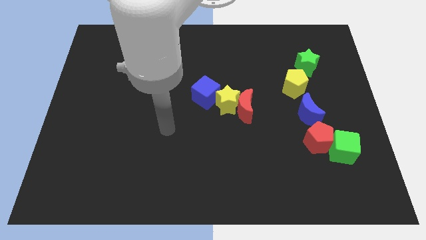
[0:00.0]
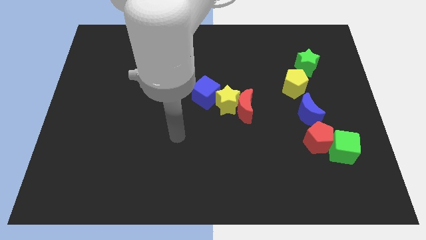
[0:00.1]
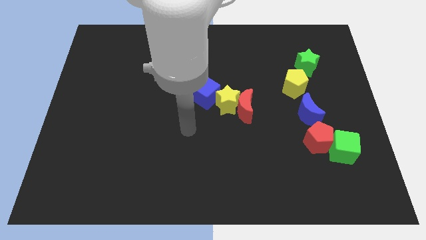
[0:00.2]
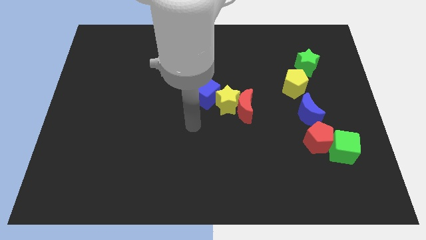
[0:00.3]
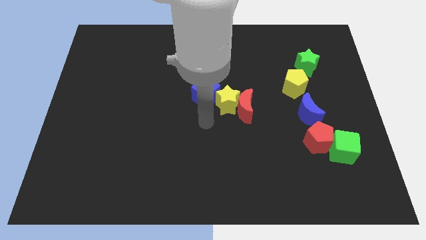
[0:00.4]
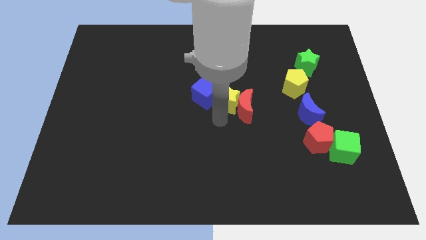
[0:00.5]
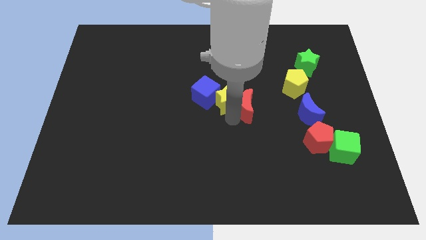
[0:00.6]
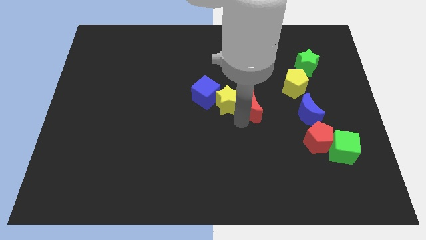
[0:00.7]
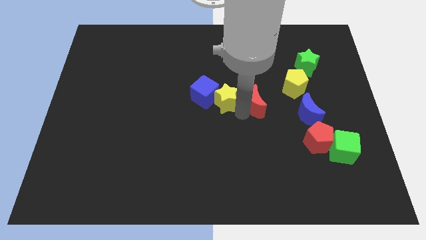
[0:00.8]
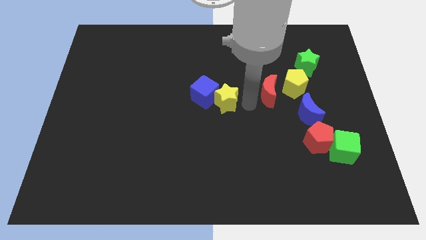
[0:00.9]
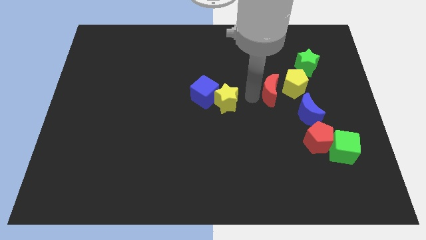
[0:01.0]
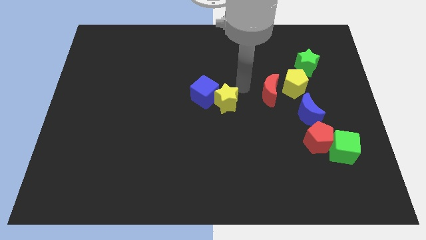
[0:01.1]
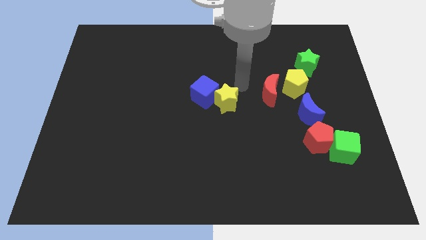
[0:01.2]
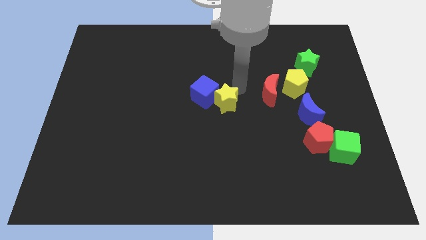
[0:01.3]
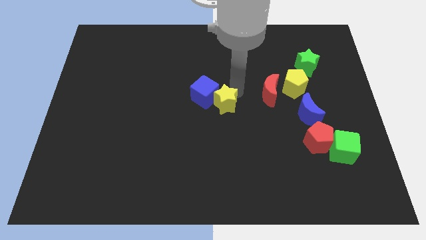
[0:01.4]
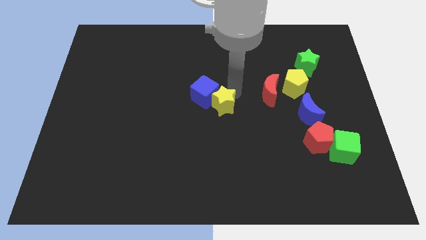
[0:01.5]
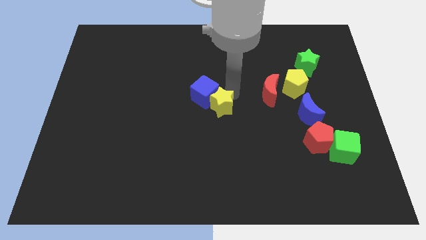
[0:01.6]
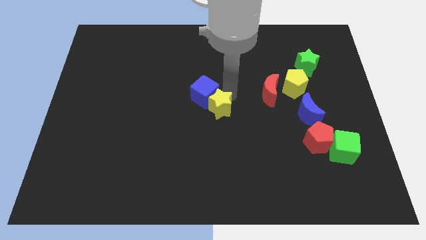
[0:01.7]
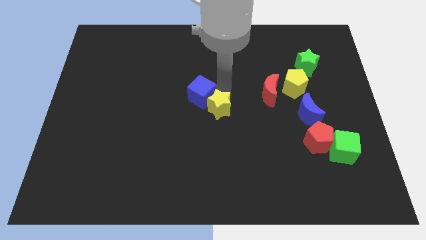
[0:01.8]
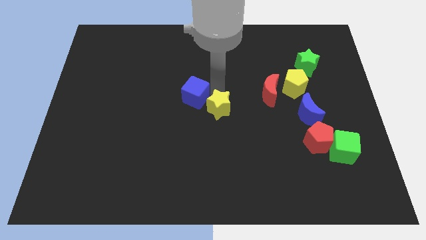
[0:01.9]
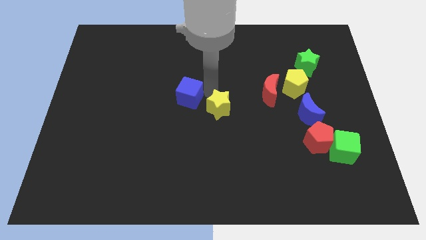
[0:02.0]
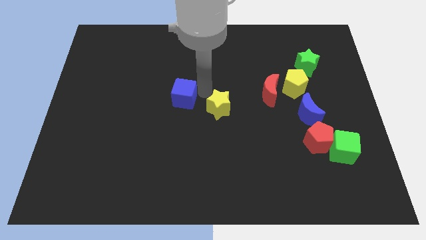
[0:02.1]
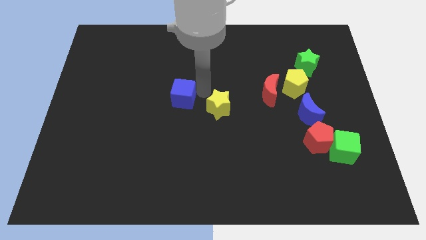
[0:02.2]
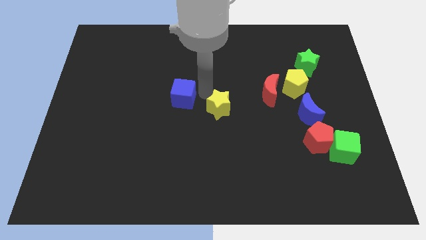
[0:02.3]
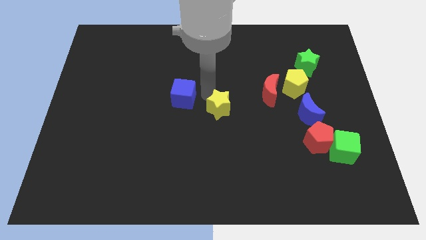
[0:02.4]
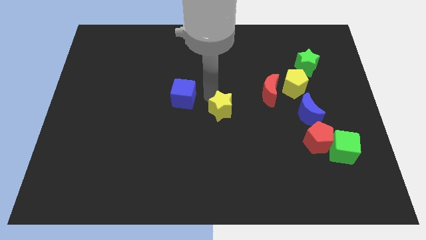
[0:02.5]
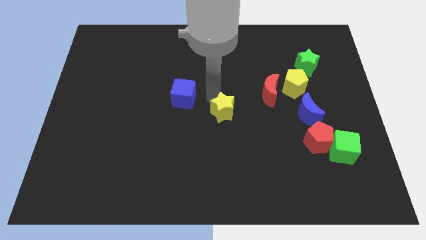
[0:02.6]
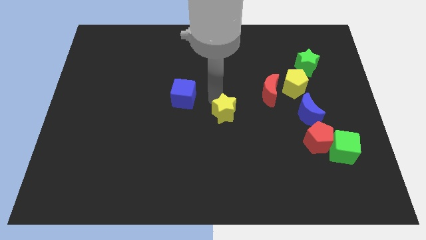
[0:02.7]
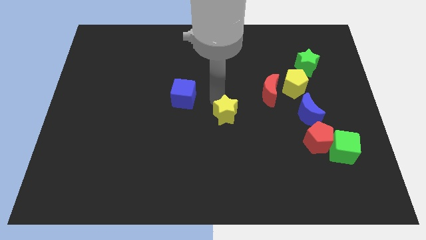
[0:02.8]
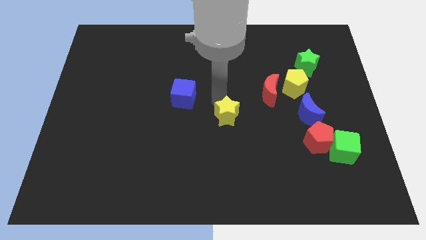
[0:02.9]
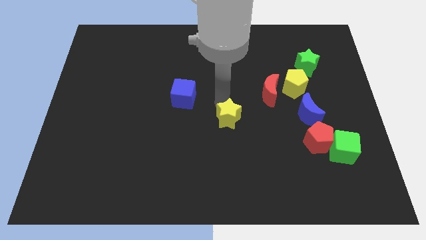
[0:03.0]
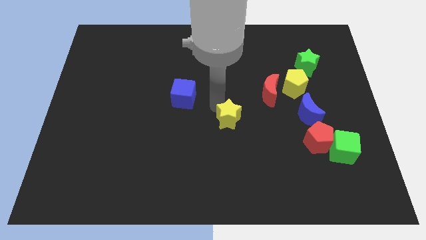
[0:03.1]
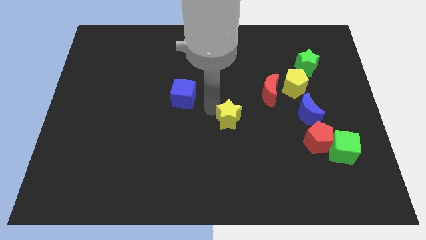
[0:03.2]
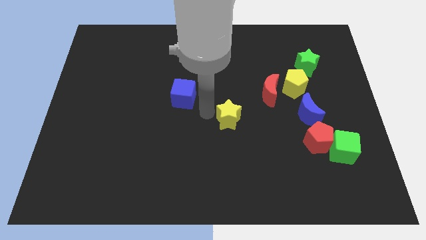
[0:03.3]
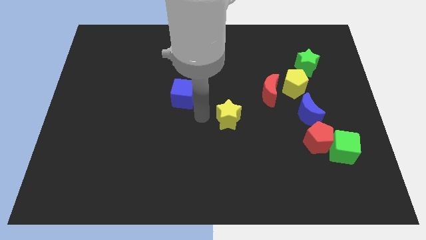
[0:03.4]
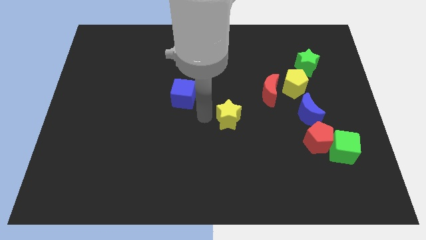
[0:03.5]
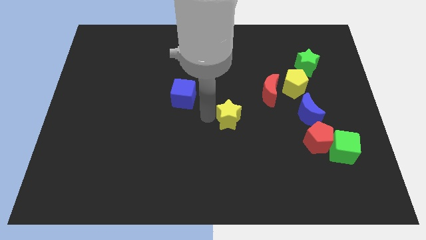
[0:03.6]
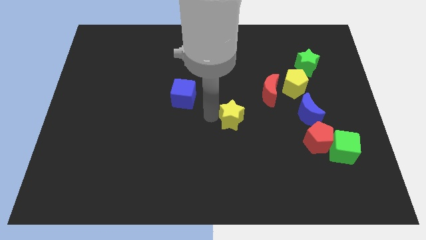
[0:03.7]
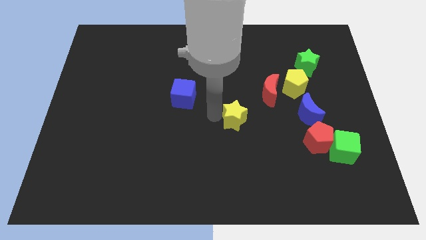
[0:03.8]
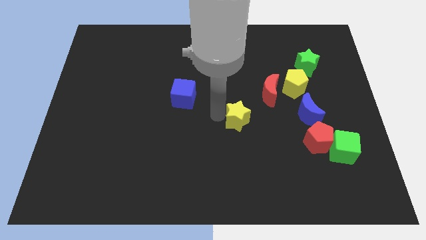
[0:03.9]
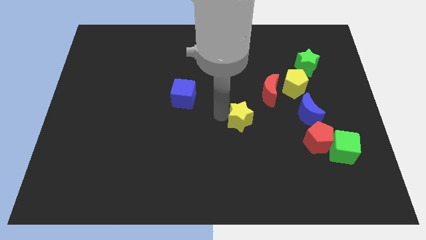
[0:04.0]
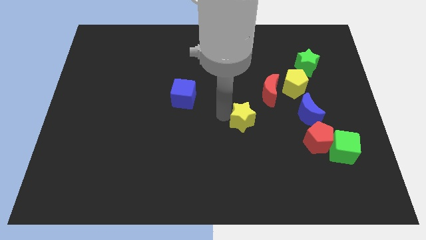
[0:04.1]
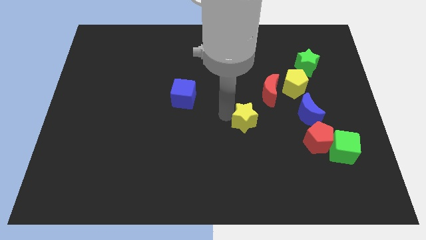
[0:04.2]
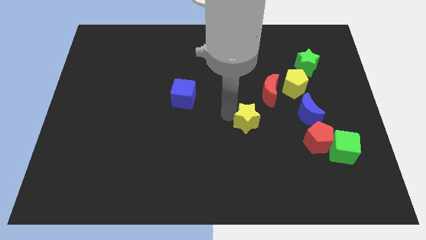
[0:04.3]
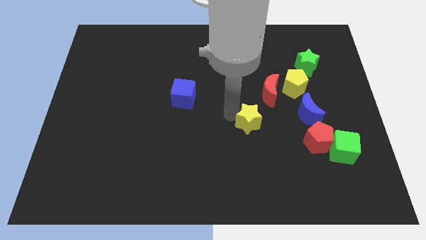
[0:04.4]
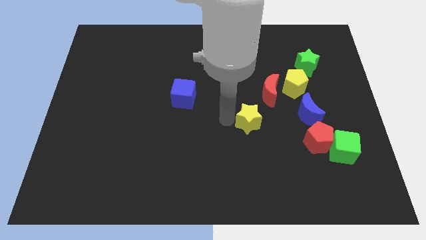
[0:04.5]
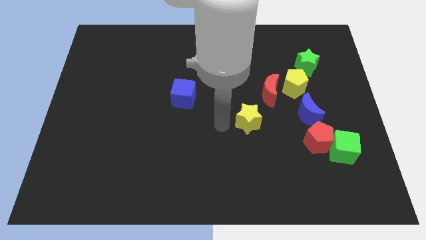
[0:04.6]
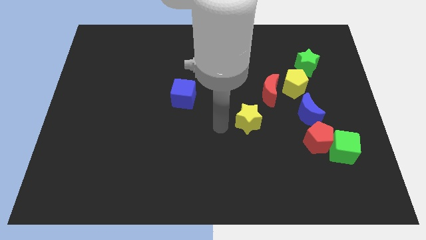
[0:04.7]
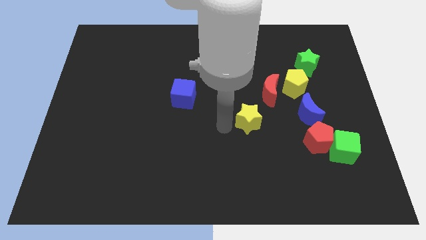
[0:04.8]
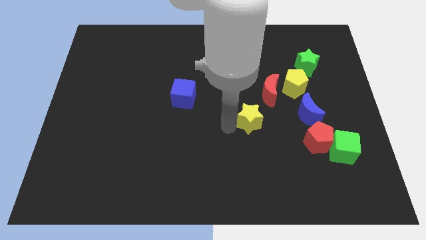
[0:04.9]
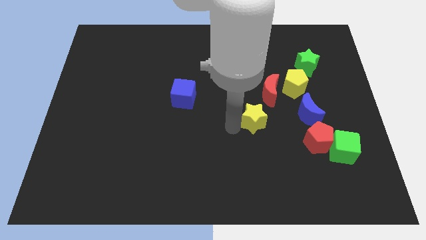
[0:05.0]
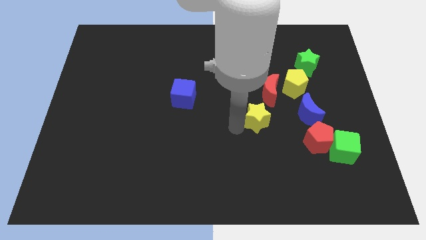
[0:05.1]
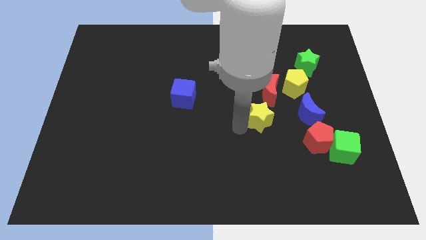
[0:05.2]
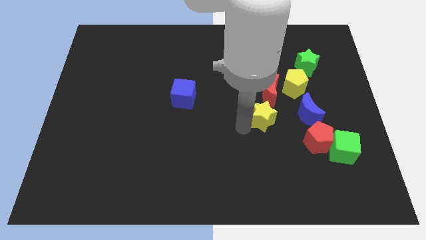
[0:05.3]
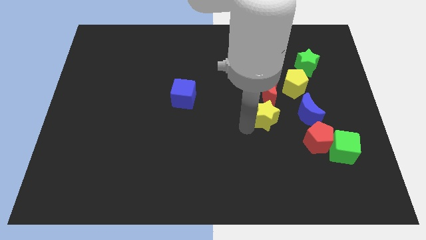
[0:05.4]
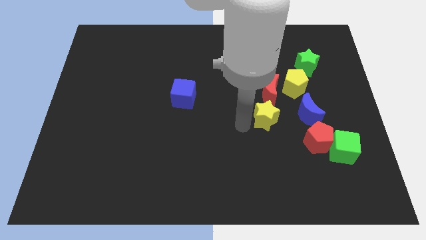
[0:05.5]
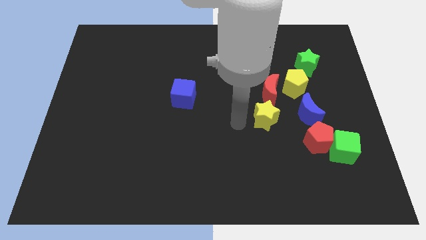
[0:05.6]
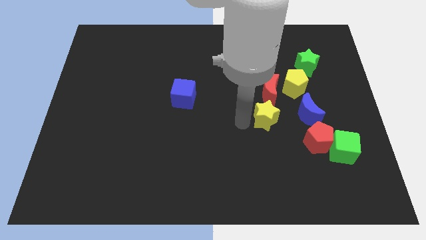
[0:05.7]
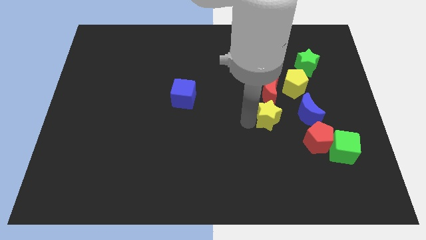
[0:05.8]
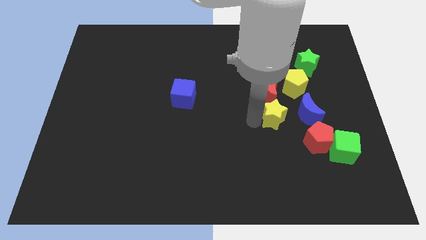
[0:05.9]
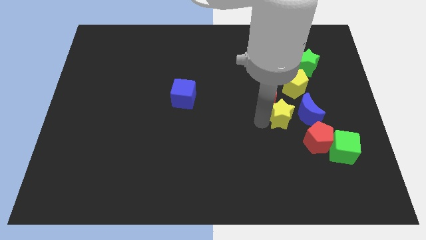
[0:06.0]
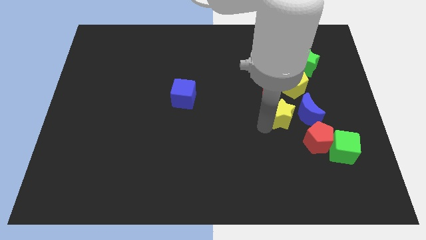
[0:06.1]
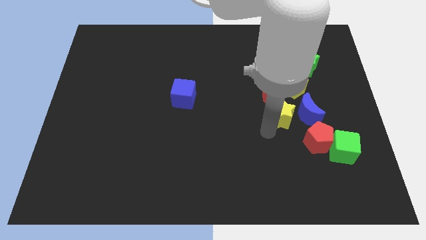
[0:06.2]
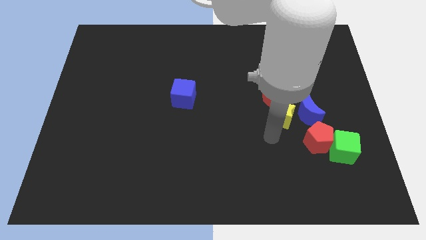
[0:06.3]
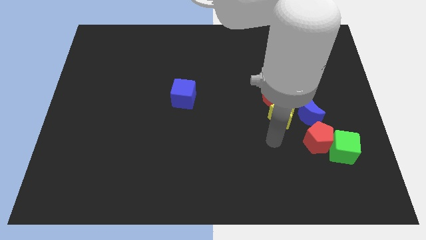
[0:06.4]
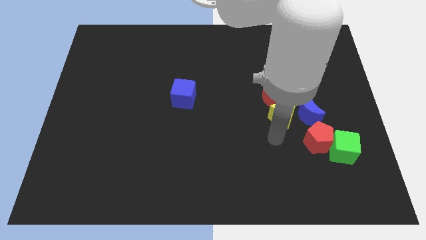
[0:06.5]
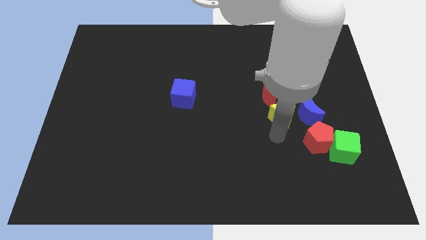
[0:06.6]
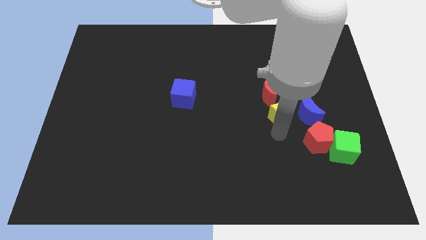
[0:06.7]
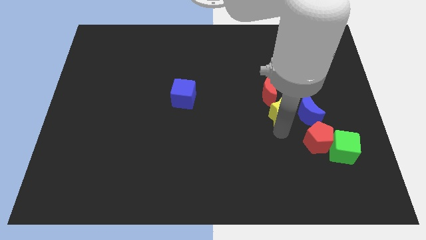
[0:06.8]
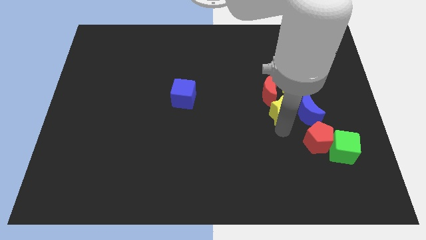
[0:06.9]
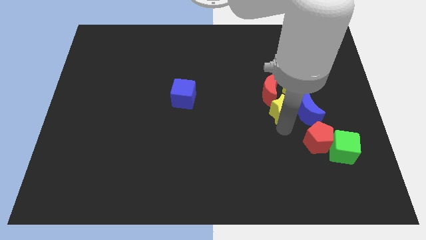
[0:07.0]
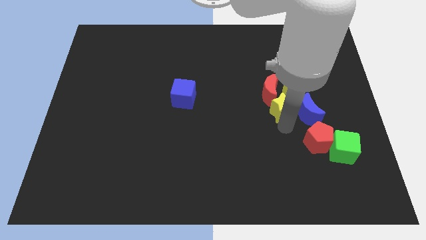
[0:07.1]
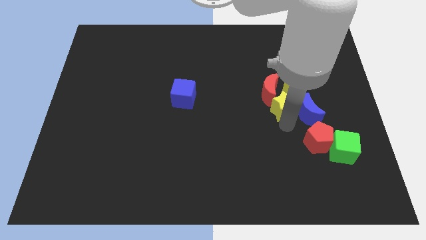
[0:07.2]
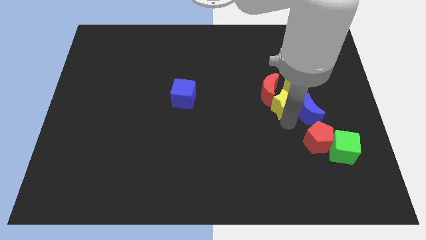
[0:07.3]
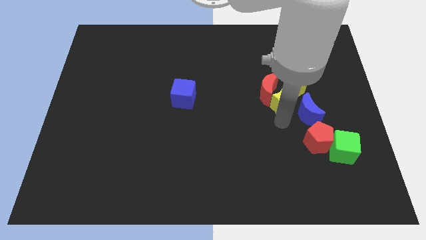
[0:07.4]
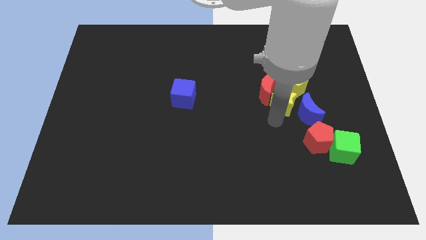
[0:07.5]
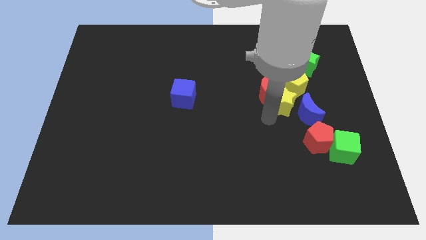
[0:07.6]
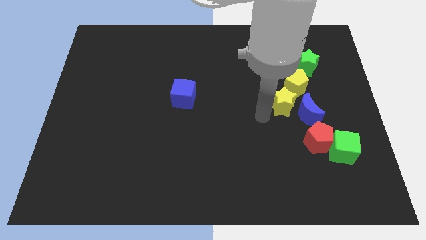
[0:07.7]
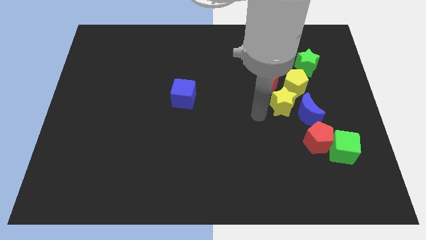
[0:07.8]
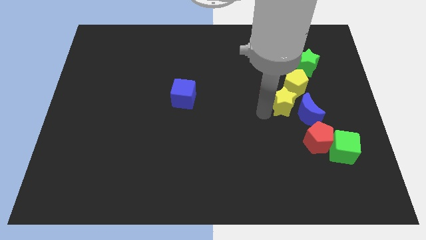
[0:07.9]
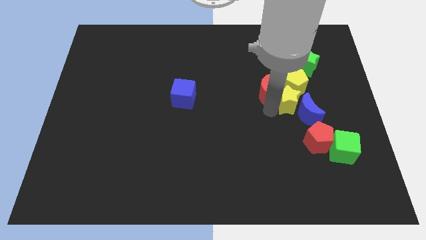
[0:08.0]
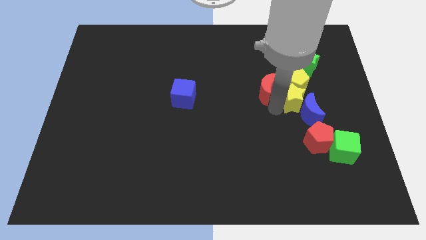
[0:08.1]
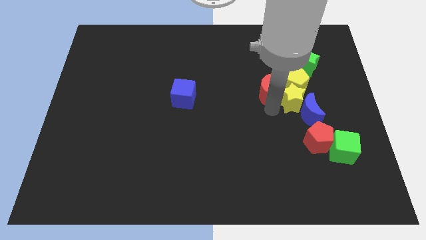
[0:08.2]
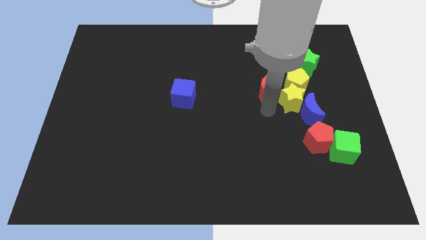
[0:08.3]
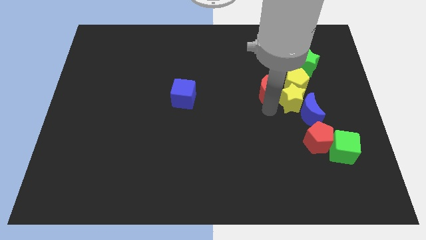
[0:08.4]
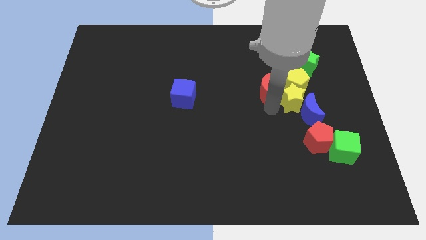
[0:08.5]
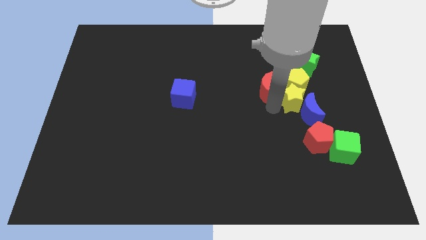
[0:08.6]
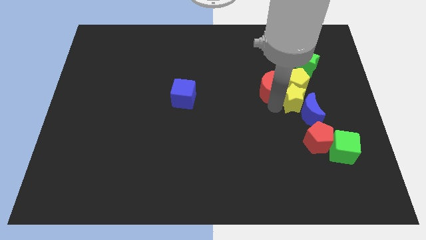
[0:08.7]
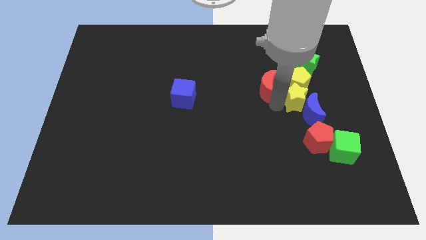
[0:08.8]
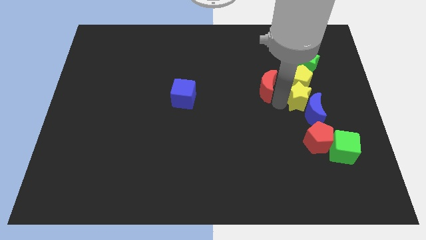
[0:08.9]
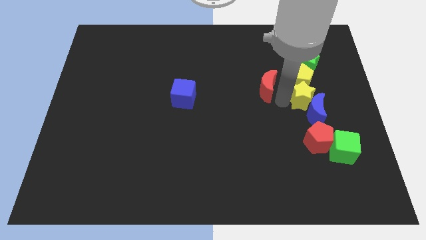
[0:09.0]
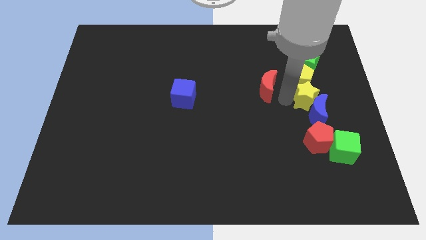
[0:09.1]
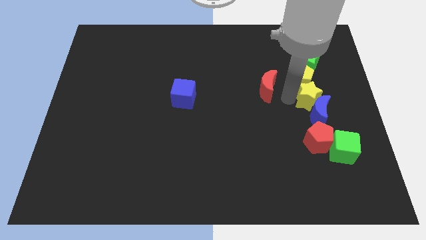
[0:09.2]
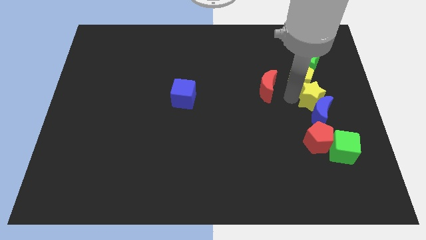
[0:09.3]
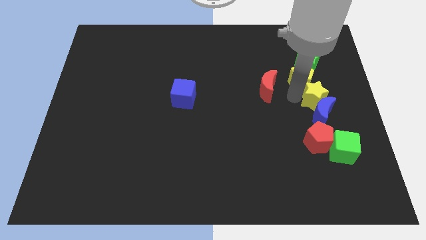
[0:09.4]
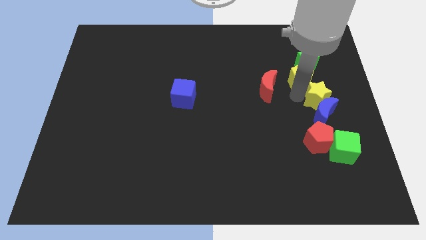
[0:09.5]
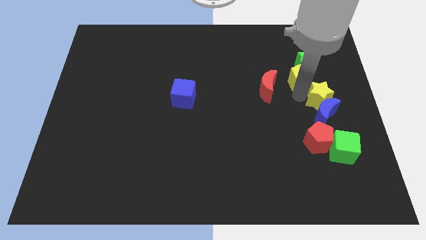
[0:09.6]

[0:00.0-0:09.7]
put the yellow star to the right side of the board
